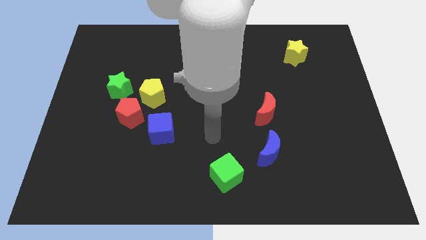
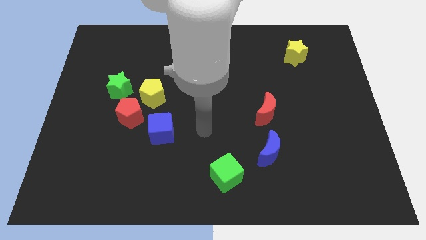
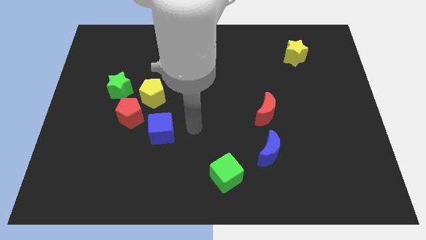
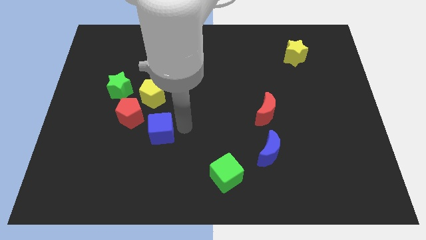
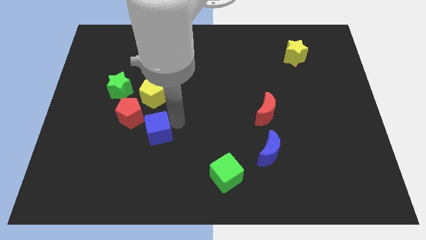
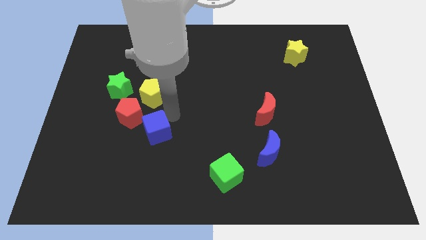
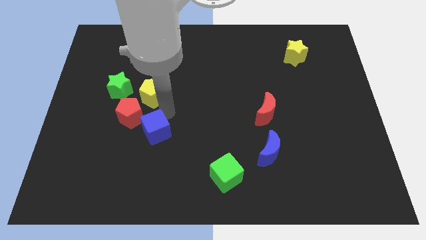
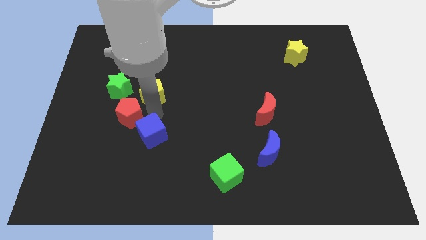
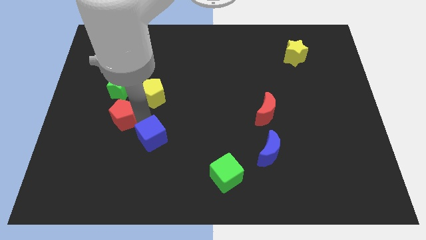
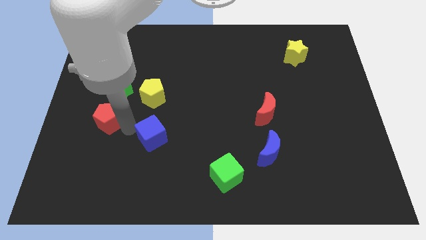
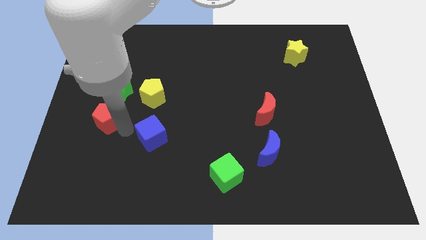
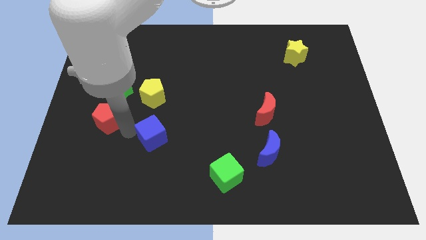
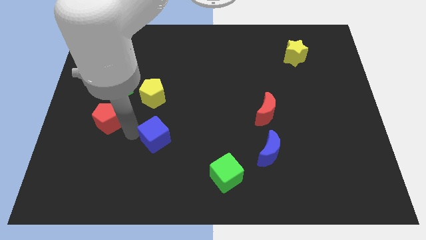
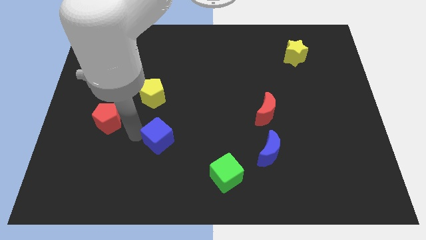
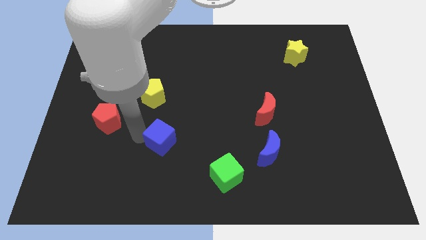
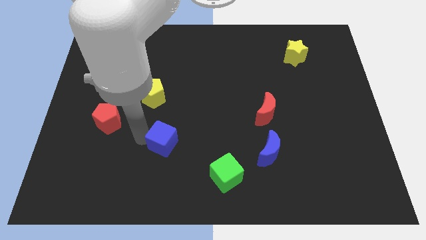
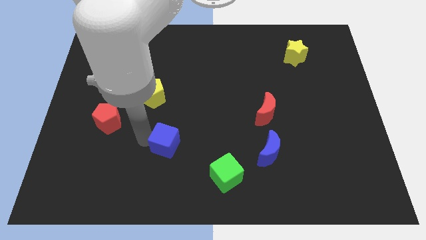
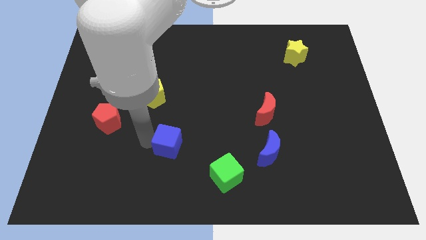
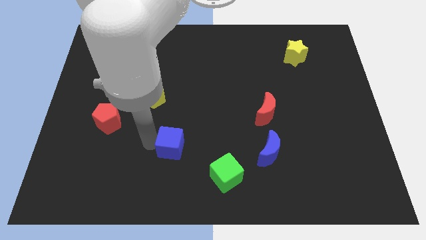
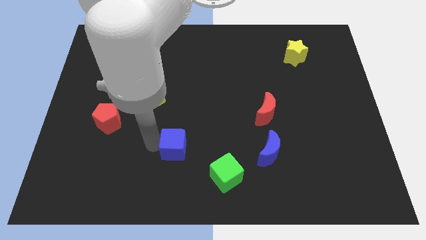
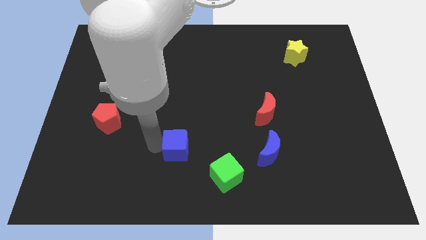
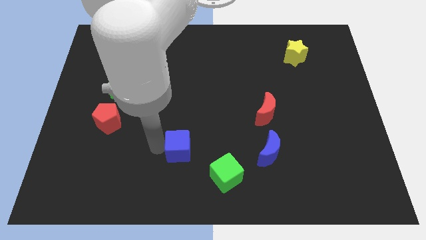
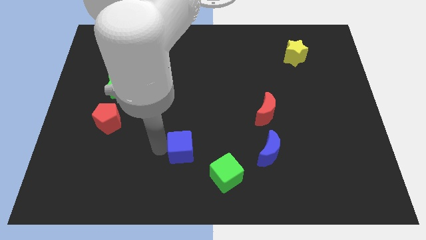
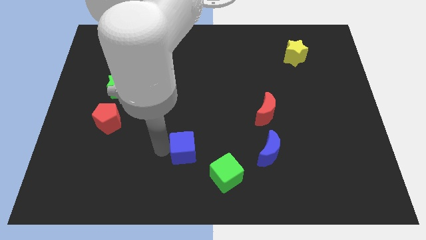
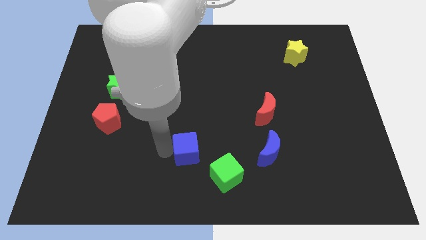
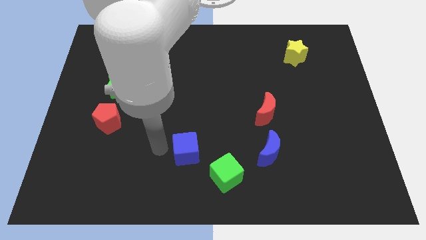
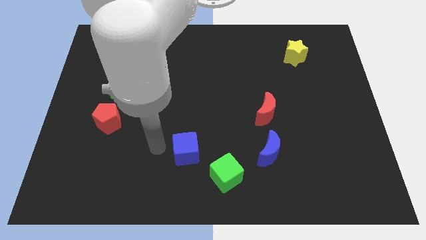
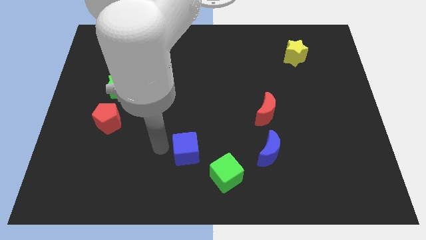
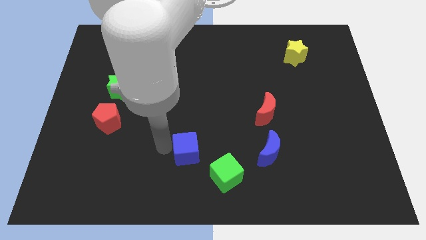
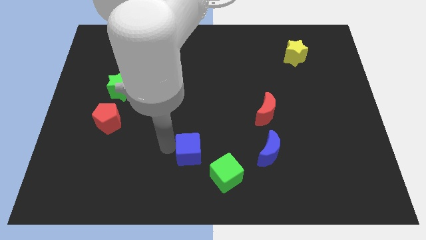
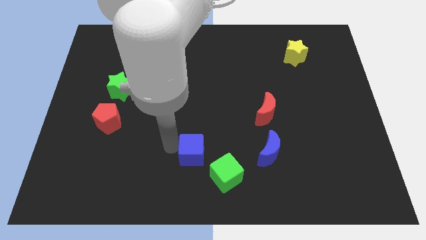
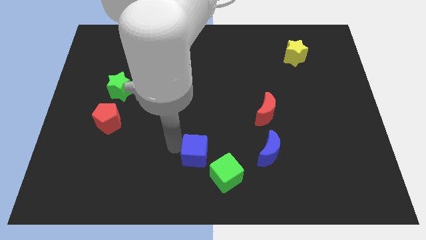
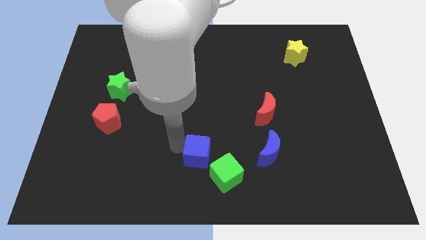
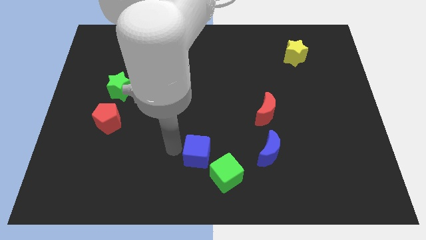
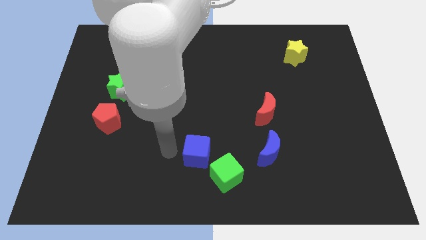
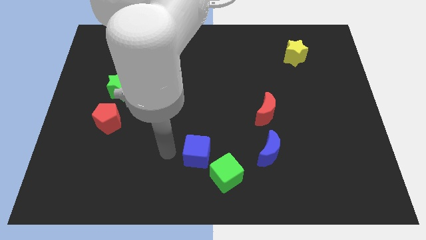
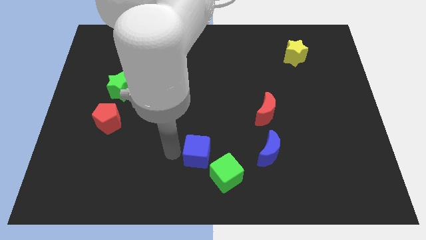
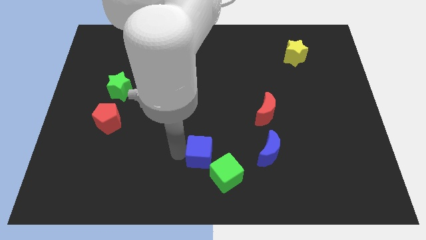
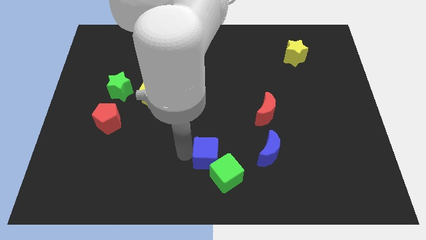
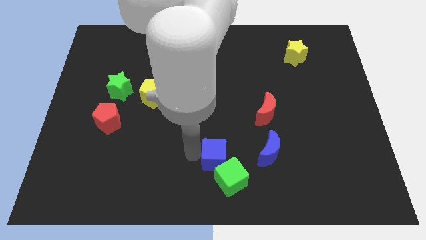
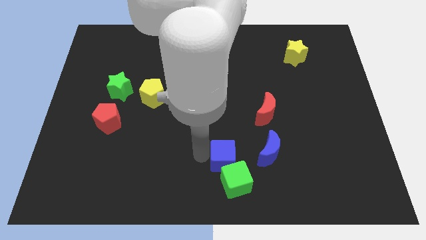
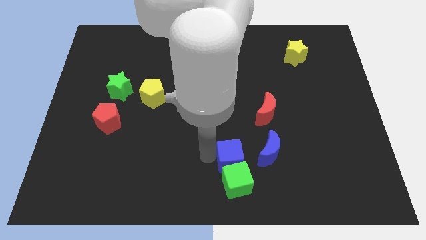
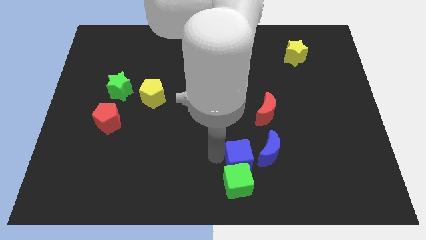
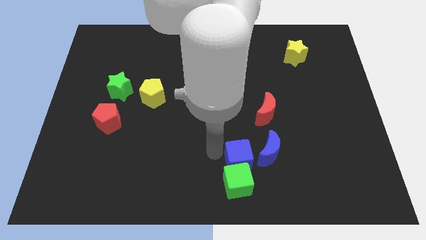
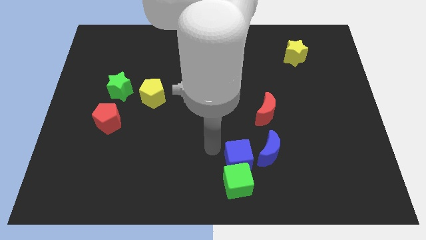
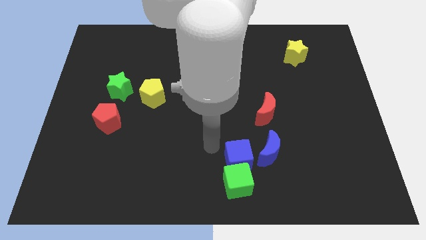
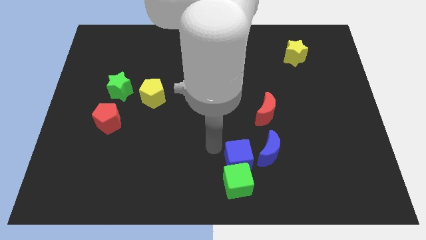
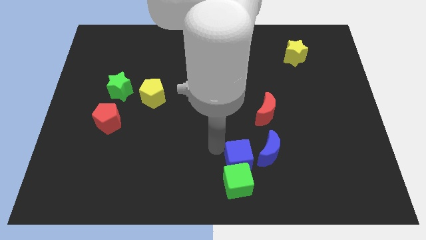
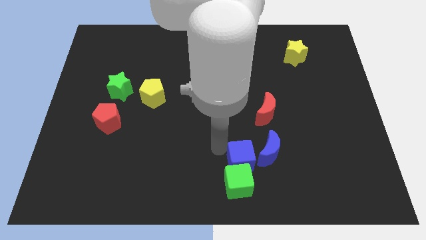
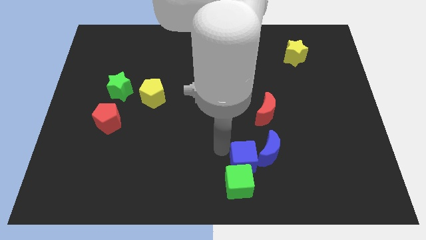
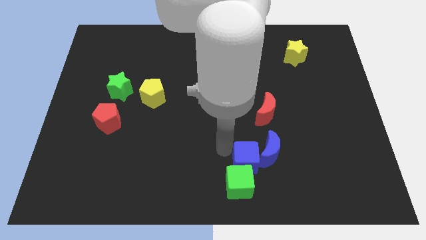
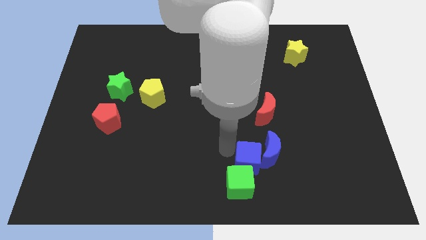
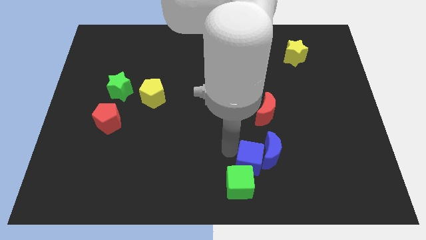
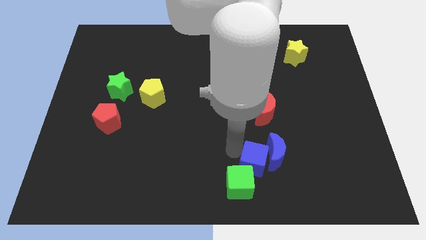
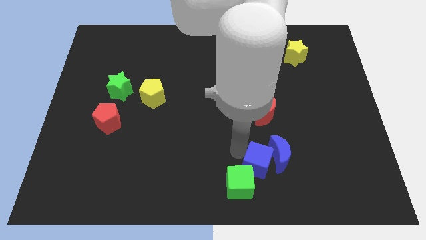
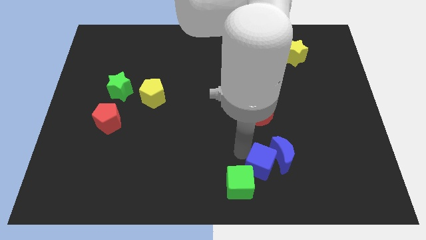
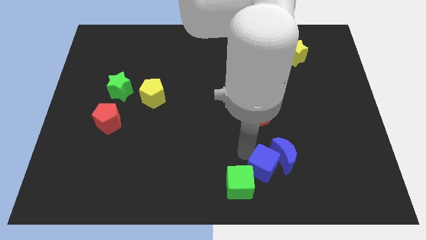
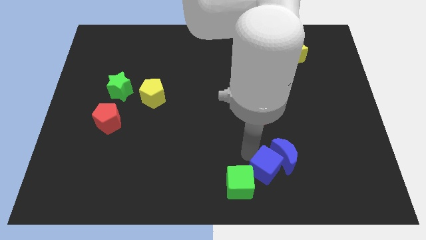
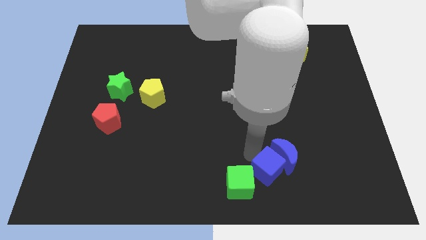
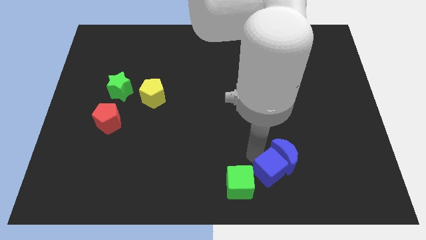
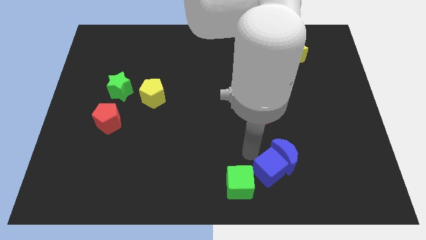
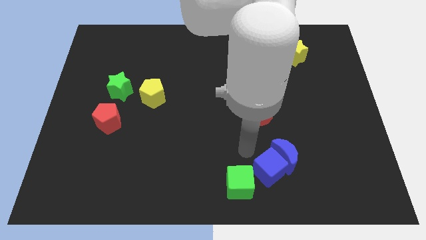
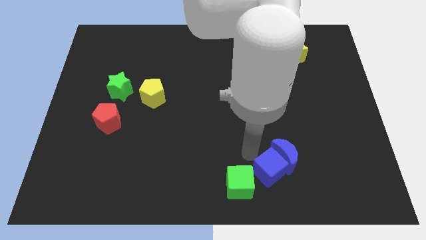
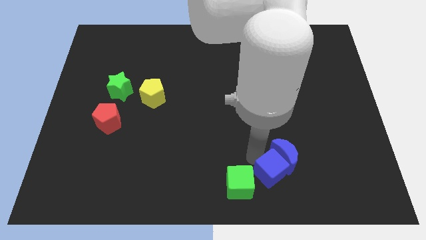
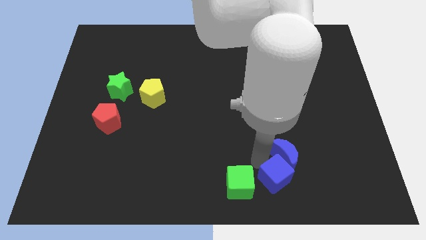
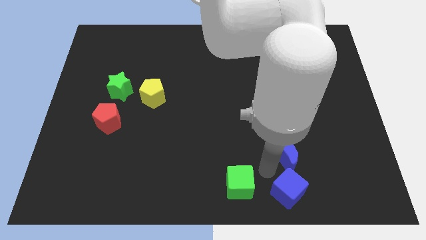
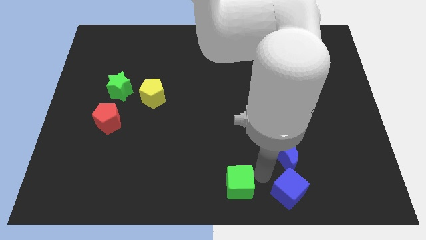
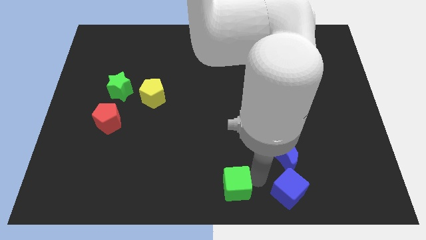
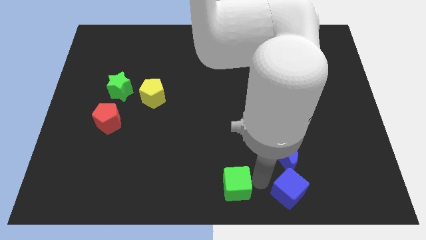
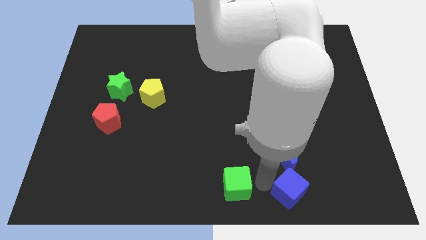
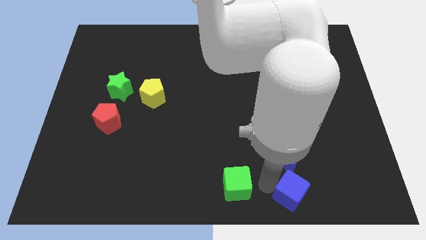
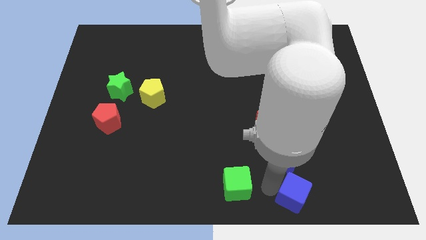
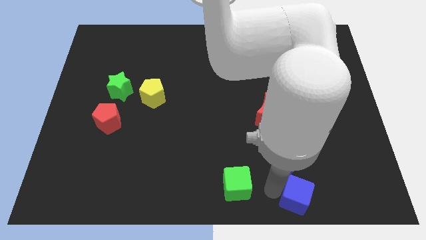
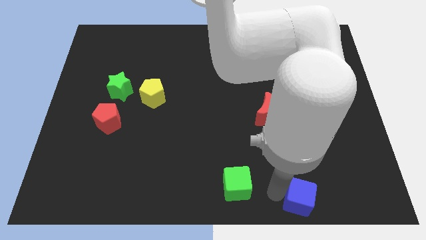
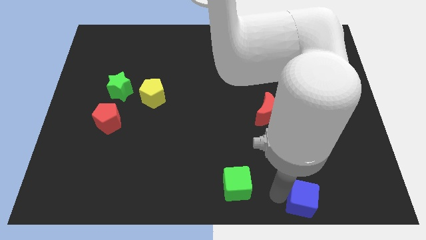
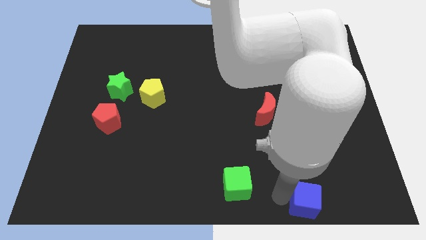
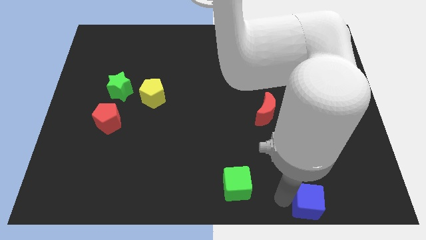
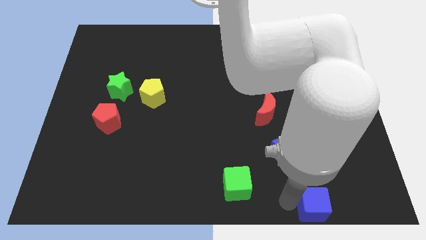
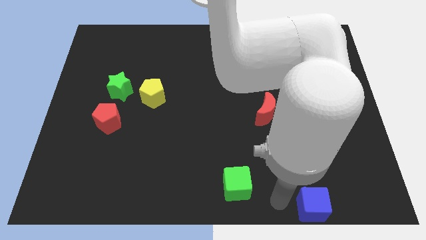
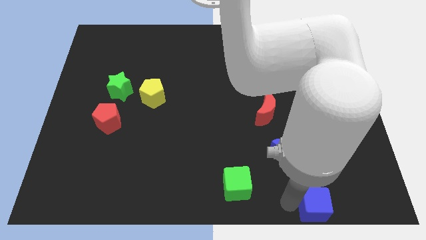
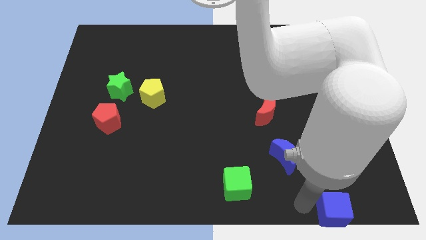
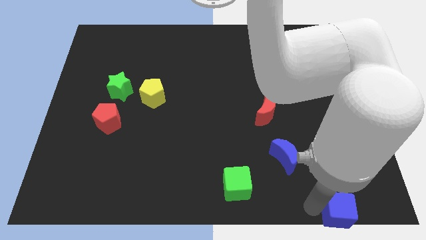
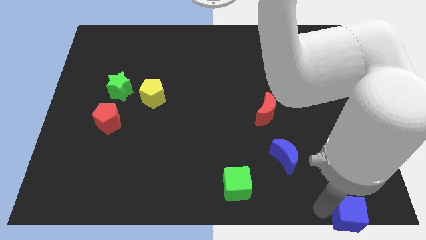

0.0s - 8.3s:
put the blue cube to the bottom right of the board
